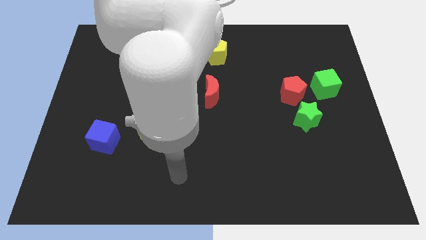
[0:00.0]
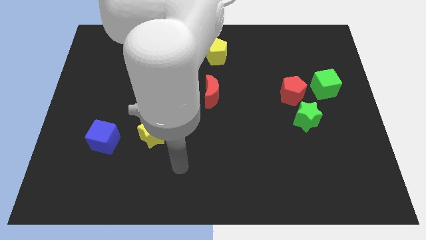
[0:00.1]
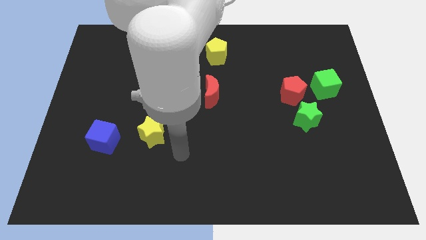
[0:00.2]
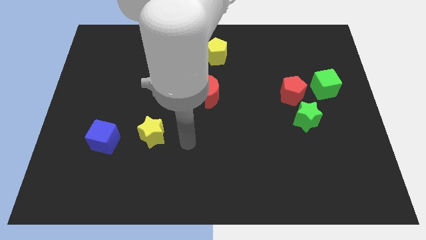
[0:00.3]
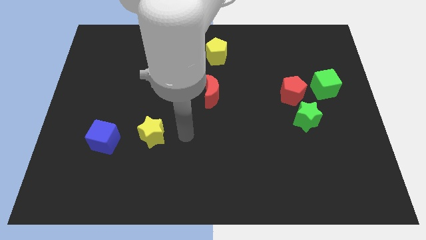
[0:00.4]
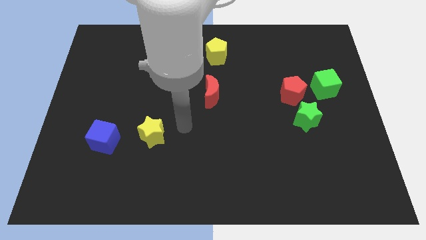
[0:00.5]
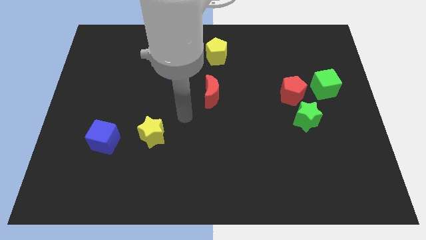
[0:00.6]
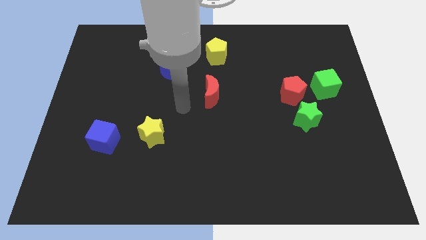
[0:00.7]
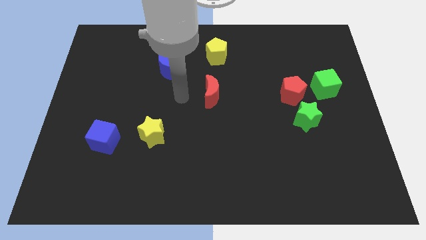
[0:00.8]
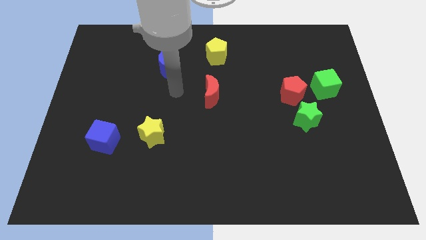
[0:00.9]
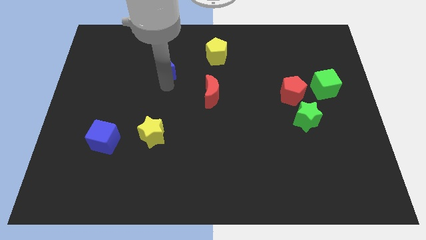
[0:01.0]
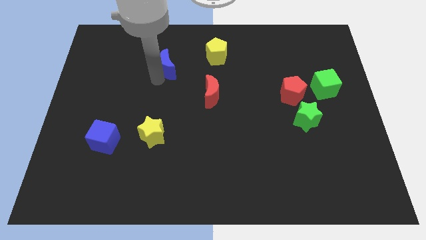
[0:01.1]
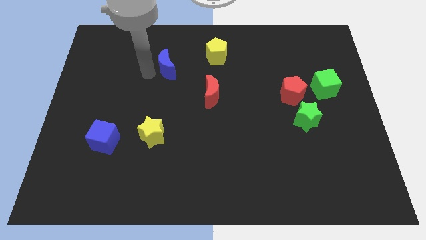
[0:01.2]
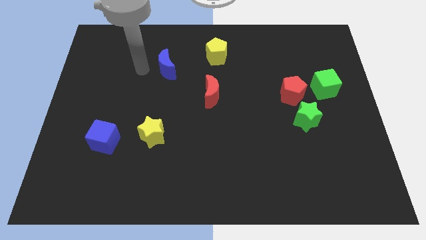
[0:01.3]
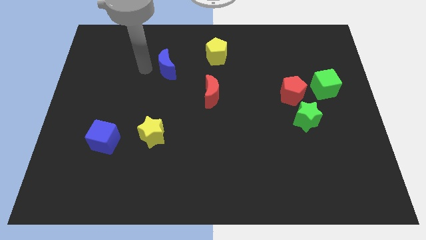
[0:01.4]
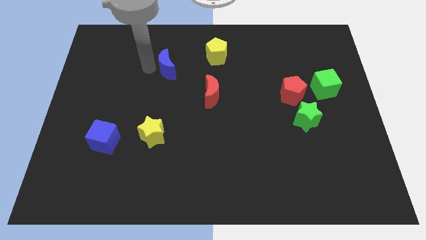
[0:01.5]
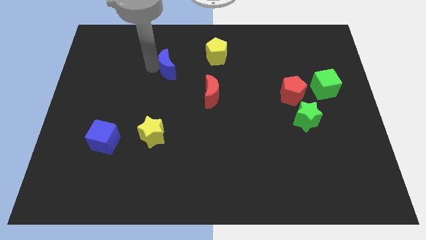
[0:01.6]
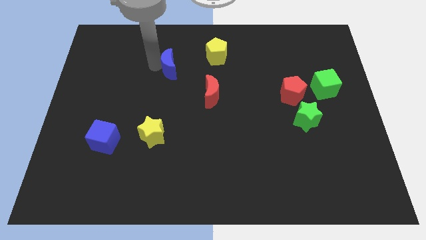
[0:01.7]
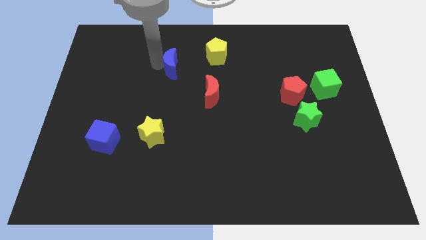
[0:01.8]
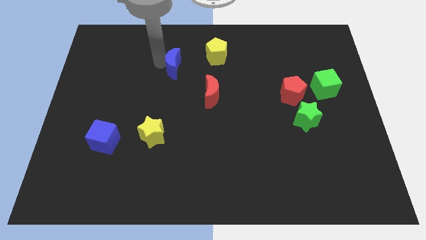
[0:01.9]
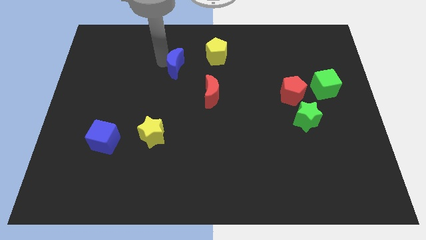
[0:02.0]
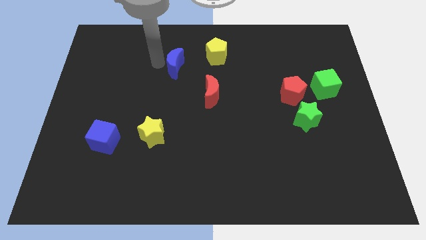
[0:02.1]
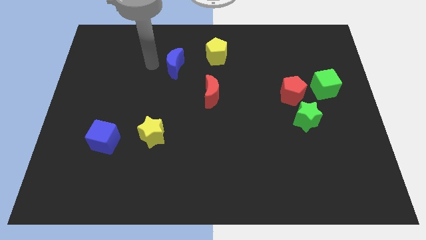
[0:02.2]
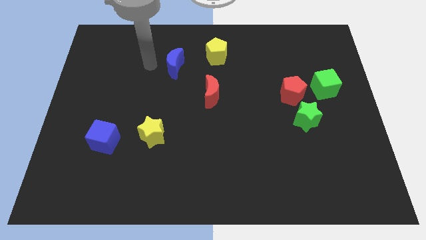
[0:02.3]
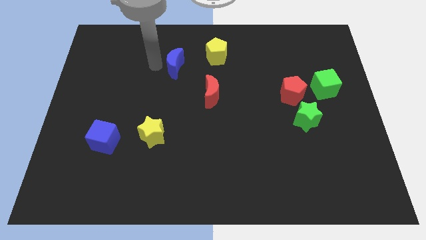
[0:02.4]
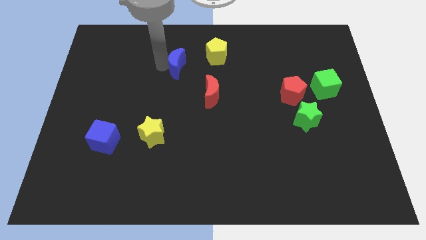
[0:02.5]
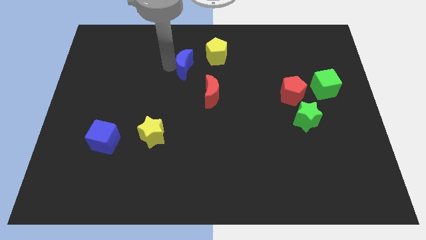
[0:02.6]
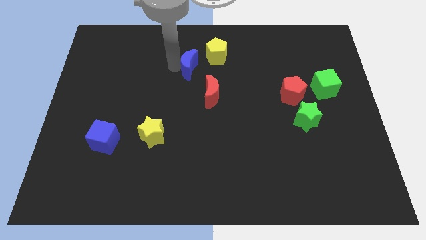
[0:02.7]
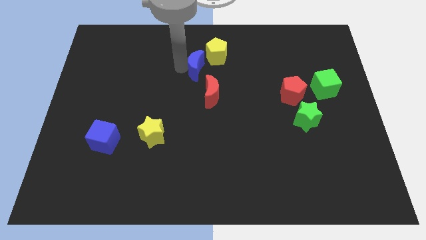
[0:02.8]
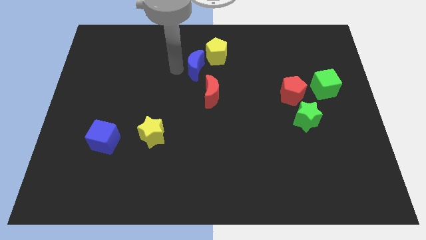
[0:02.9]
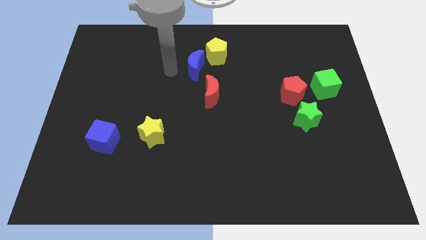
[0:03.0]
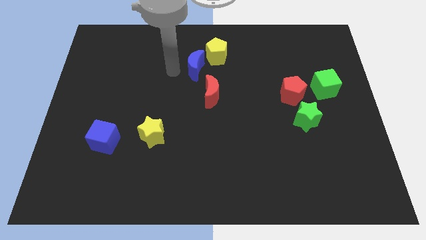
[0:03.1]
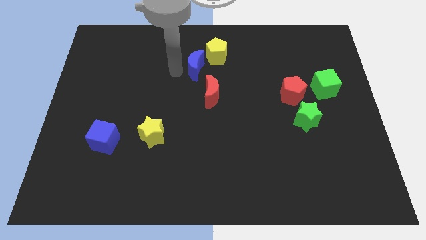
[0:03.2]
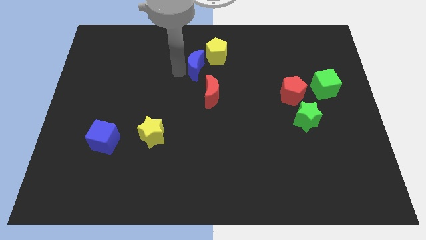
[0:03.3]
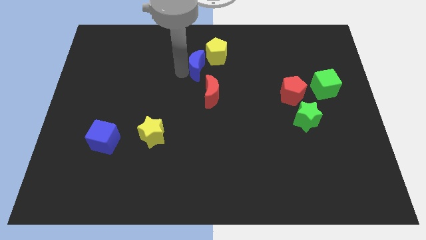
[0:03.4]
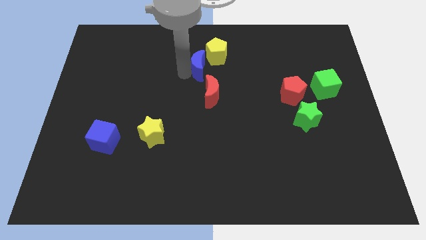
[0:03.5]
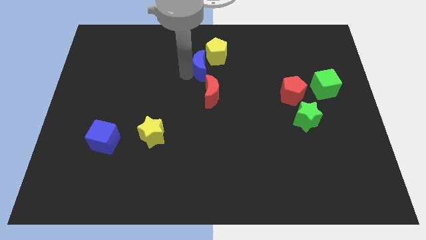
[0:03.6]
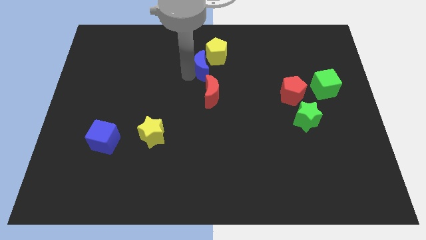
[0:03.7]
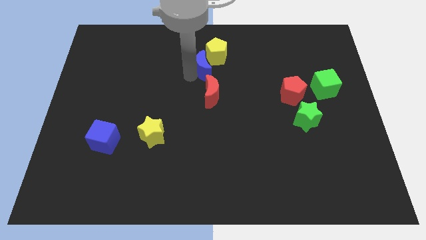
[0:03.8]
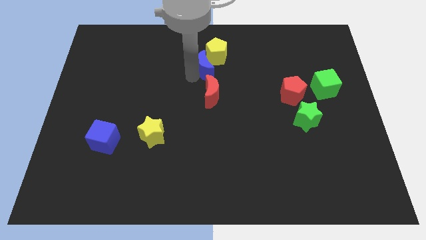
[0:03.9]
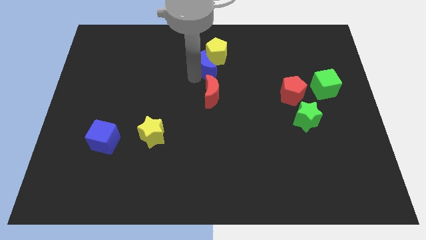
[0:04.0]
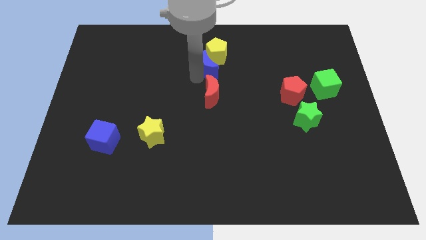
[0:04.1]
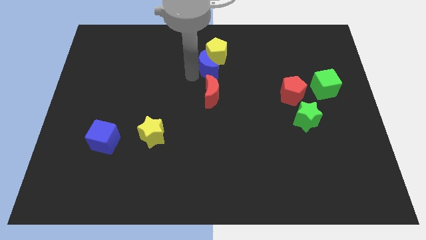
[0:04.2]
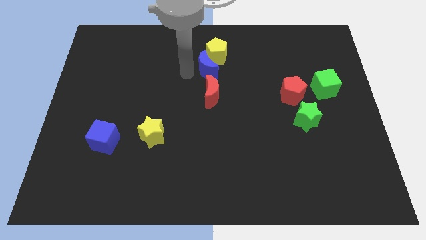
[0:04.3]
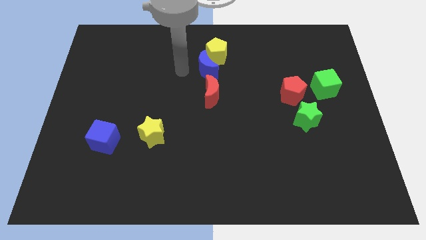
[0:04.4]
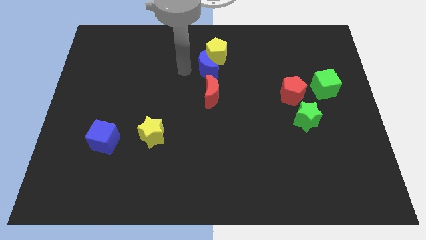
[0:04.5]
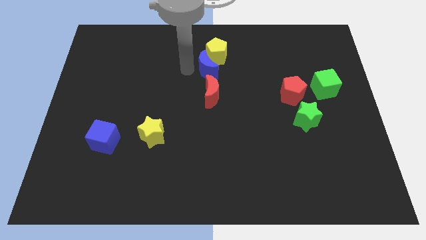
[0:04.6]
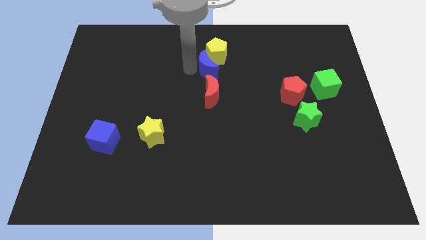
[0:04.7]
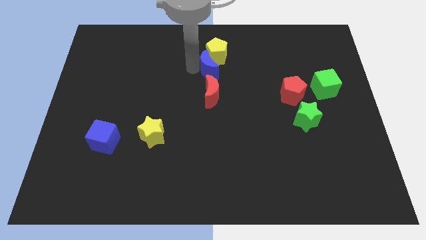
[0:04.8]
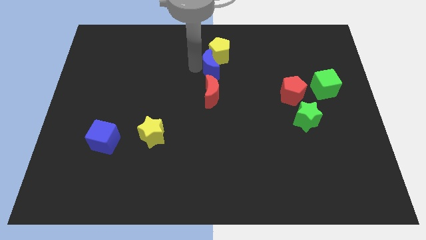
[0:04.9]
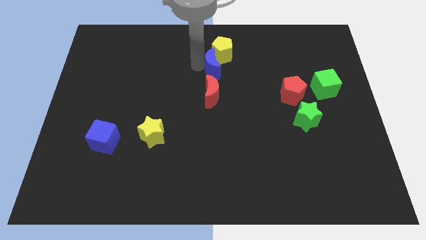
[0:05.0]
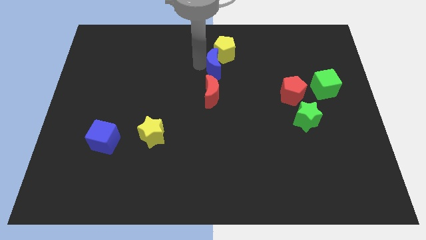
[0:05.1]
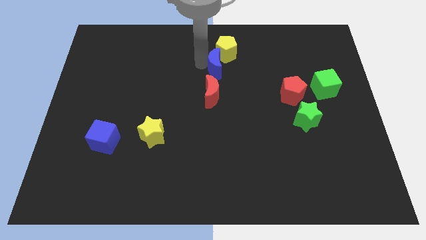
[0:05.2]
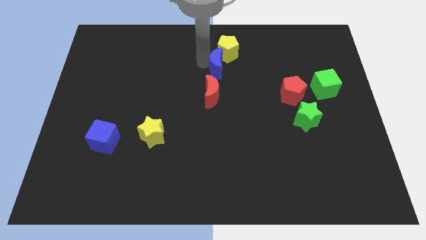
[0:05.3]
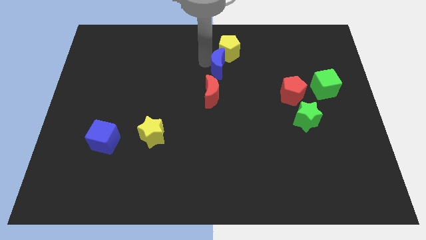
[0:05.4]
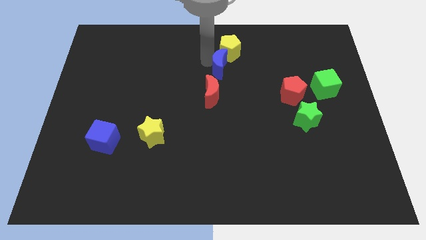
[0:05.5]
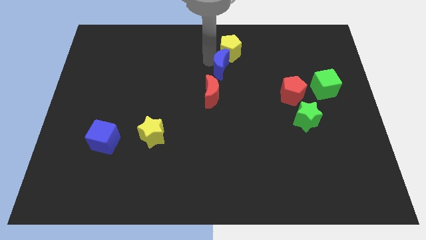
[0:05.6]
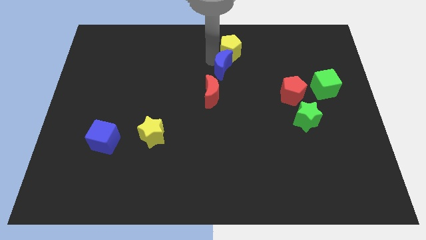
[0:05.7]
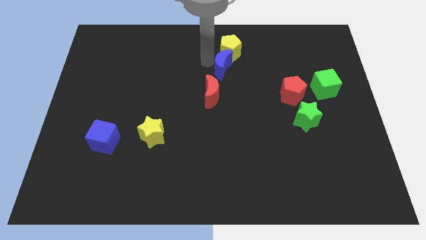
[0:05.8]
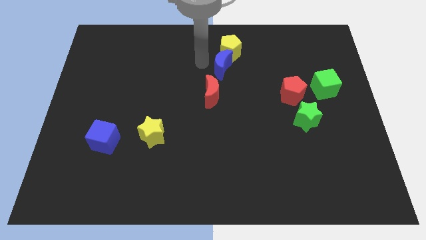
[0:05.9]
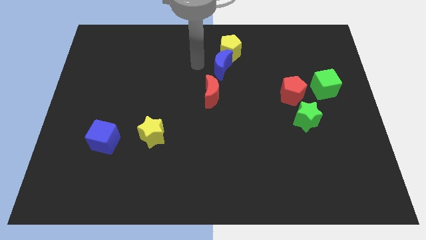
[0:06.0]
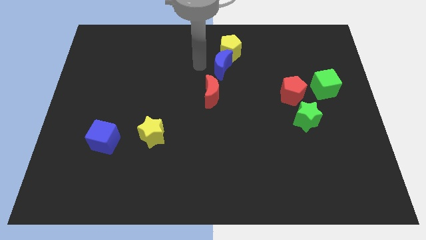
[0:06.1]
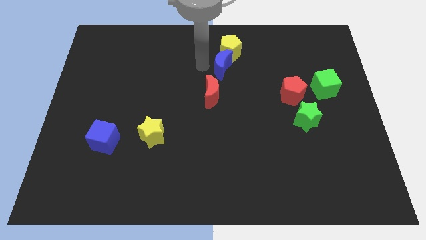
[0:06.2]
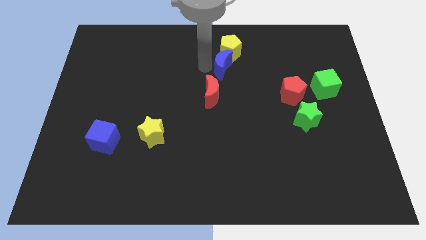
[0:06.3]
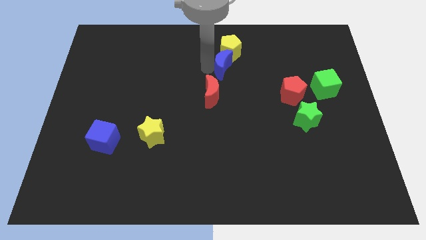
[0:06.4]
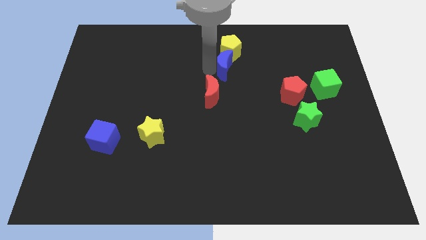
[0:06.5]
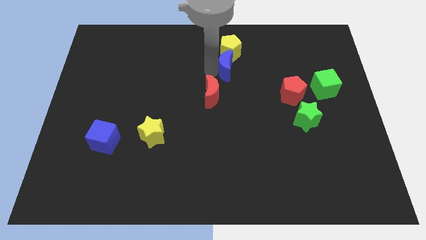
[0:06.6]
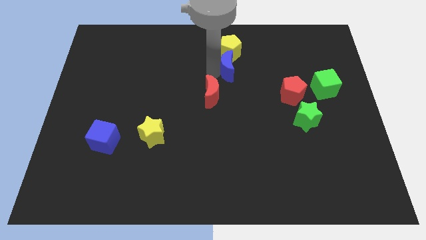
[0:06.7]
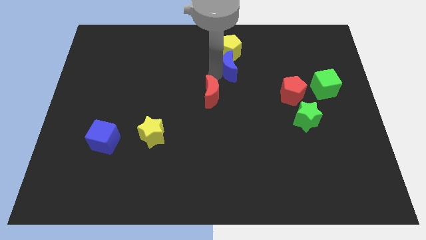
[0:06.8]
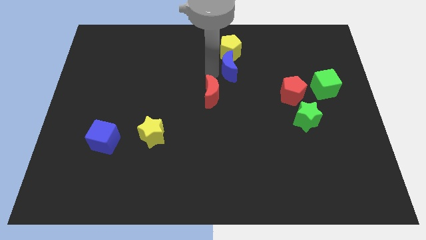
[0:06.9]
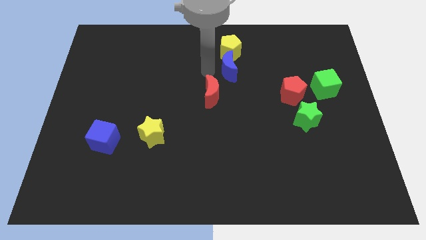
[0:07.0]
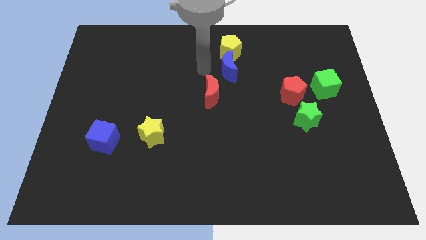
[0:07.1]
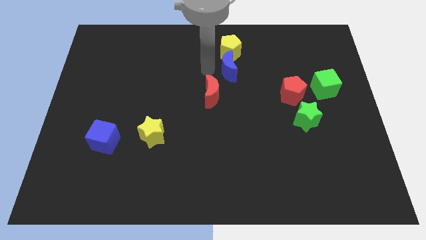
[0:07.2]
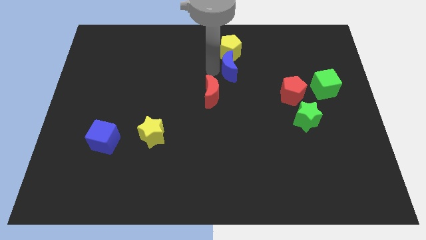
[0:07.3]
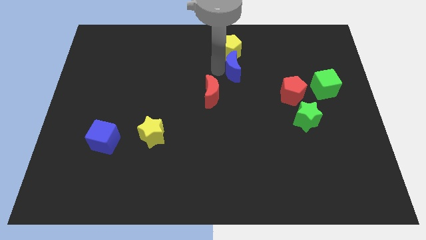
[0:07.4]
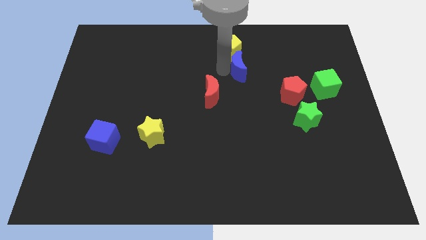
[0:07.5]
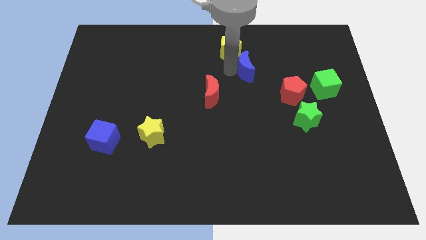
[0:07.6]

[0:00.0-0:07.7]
slide the blue moon to the right

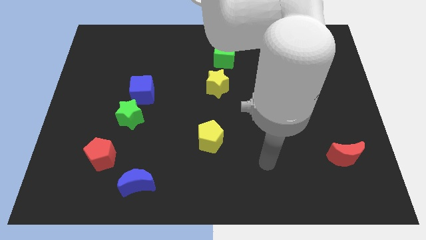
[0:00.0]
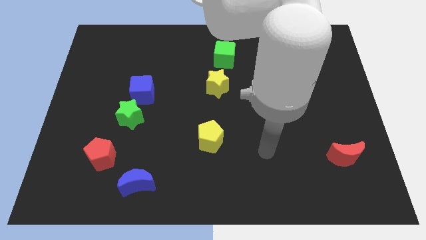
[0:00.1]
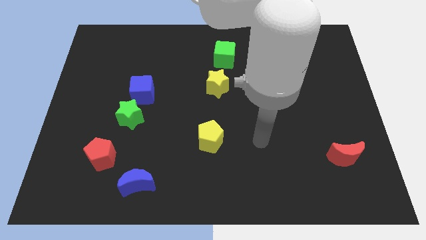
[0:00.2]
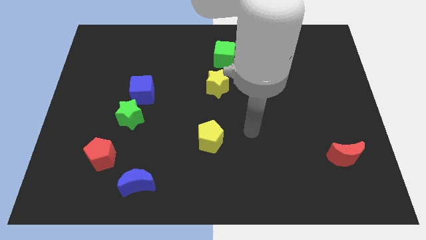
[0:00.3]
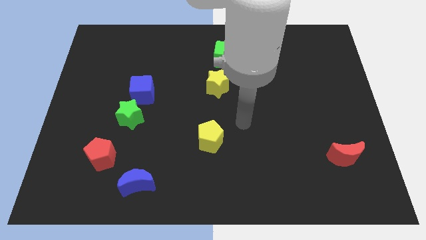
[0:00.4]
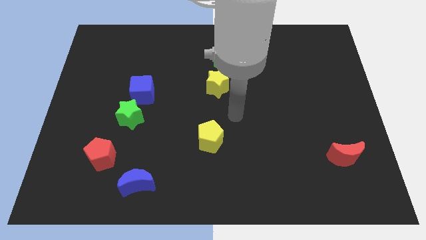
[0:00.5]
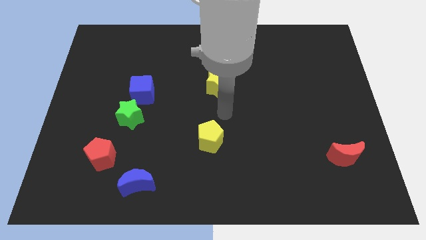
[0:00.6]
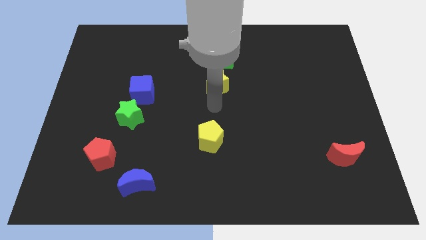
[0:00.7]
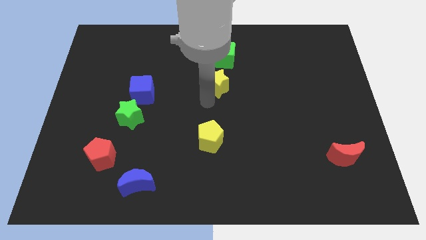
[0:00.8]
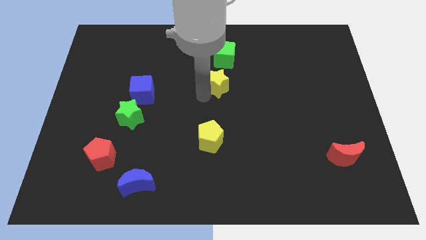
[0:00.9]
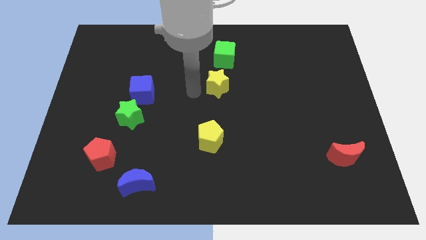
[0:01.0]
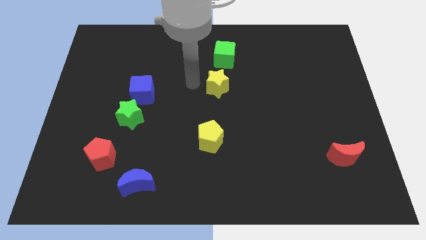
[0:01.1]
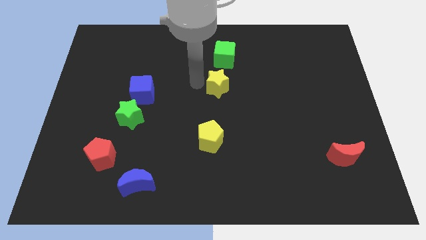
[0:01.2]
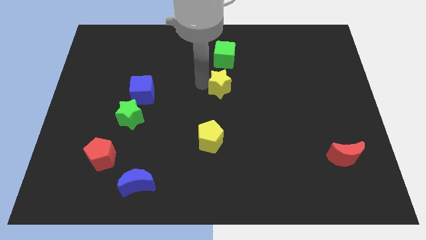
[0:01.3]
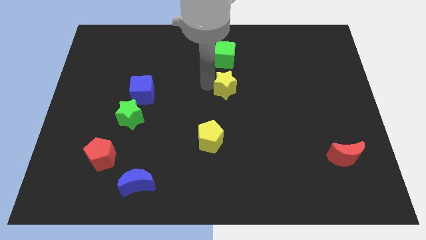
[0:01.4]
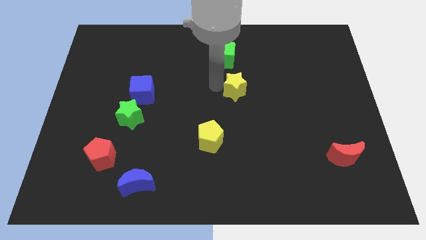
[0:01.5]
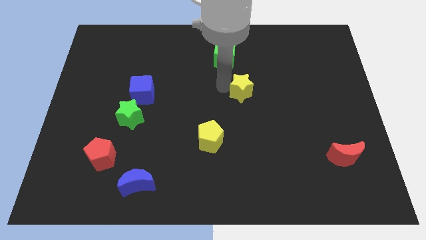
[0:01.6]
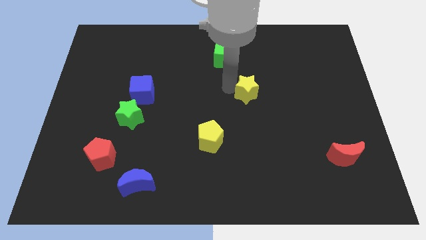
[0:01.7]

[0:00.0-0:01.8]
push the yellow star a little bit right
